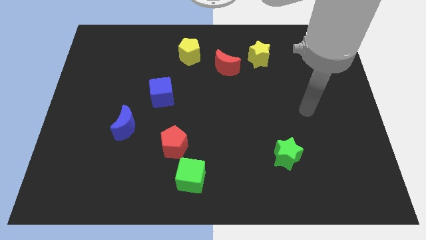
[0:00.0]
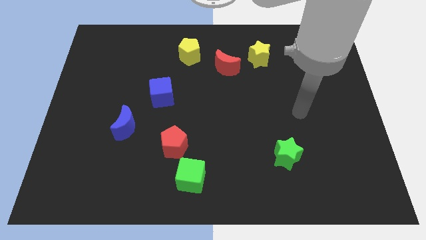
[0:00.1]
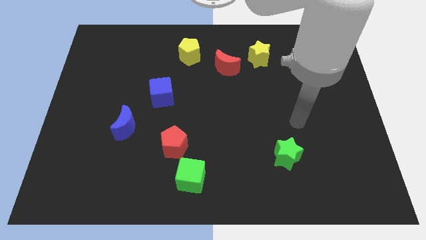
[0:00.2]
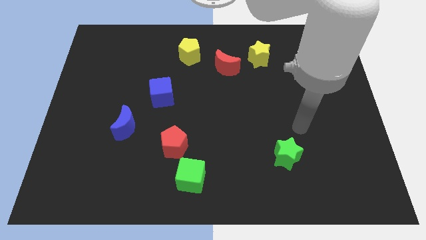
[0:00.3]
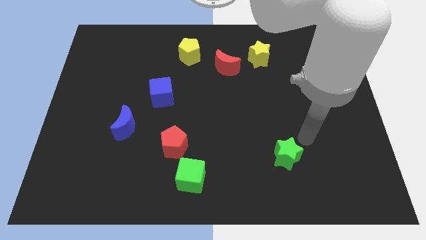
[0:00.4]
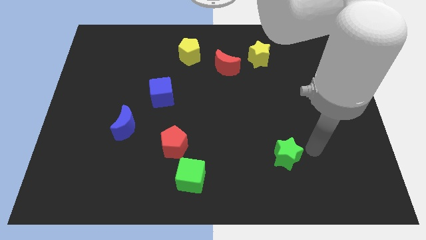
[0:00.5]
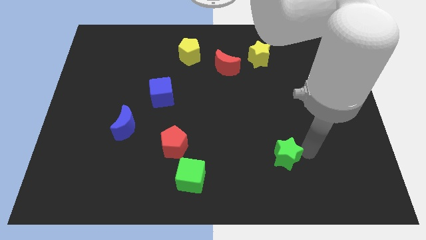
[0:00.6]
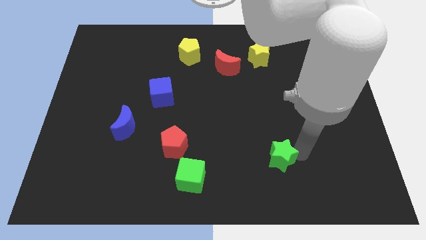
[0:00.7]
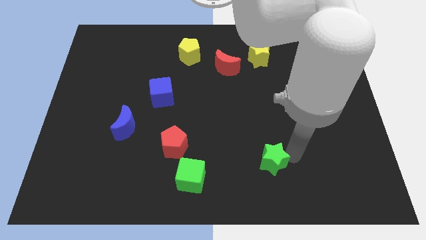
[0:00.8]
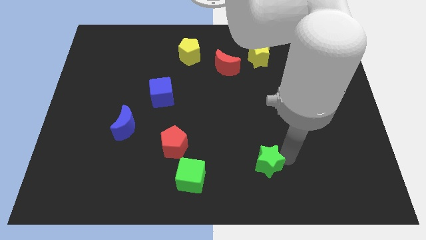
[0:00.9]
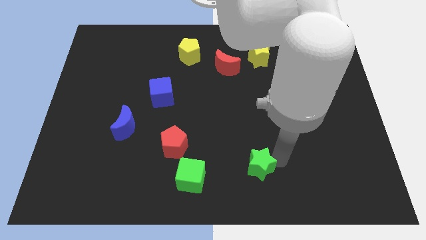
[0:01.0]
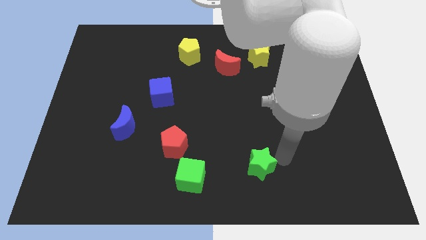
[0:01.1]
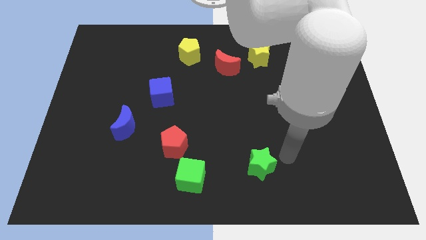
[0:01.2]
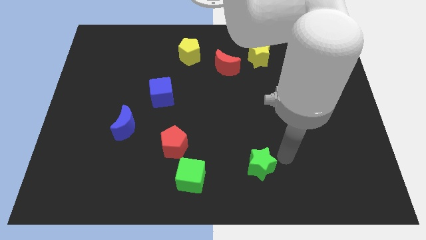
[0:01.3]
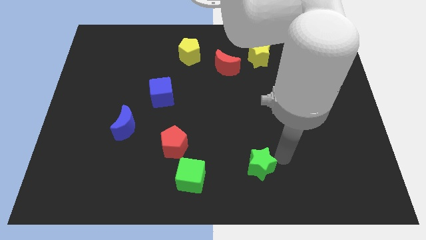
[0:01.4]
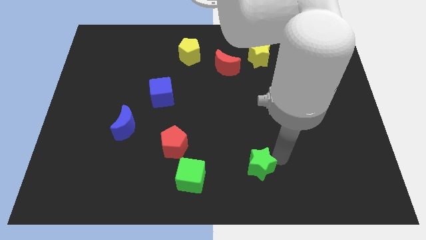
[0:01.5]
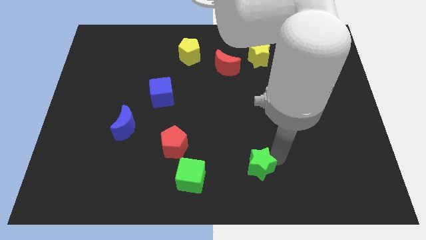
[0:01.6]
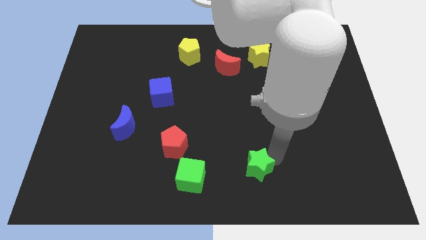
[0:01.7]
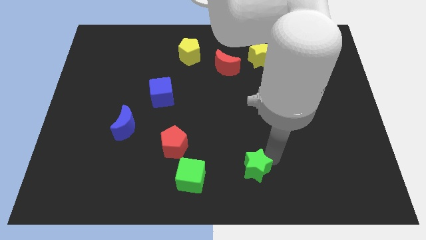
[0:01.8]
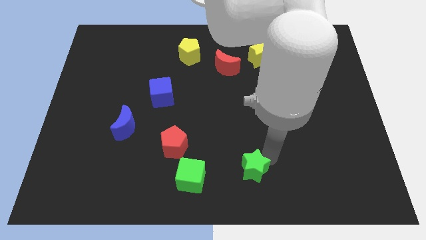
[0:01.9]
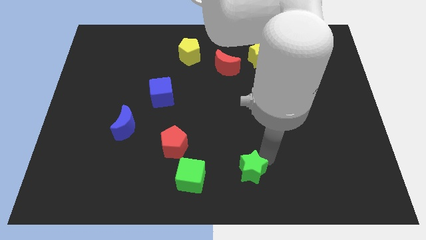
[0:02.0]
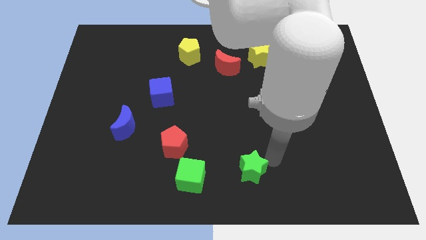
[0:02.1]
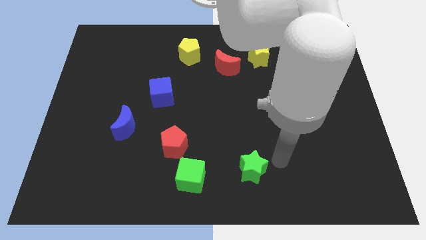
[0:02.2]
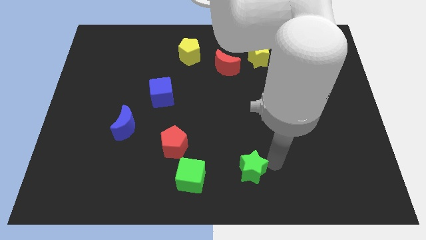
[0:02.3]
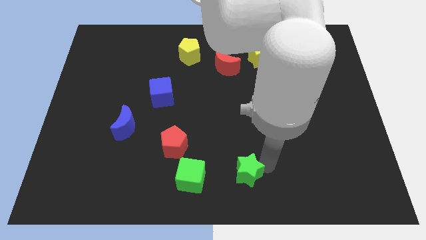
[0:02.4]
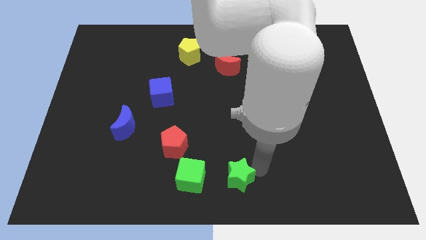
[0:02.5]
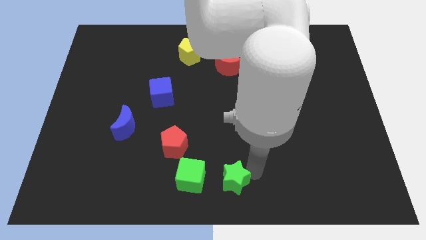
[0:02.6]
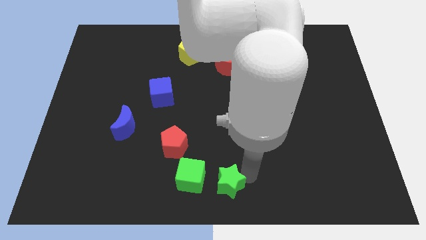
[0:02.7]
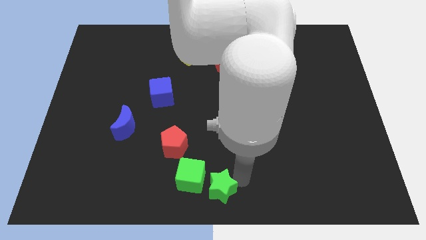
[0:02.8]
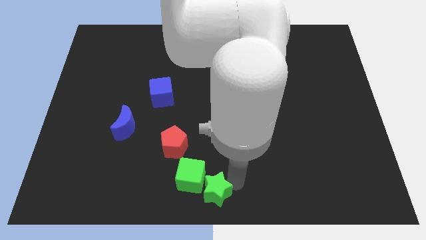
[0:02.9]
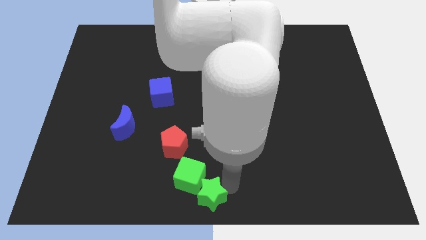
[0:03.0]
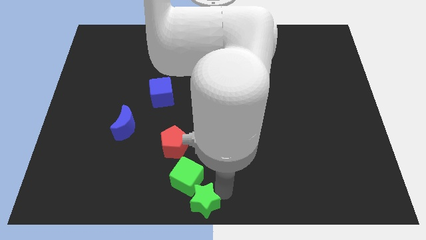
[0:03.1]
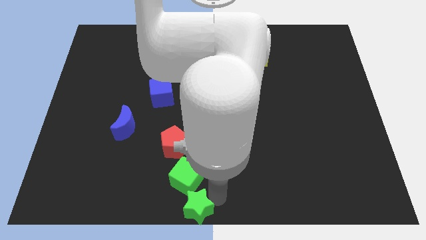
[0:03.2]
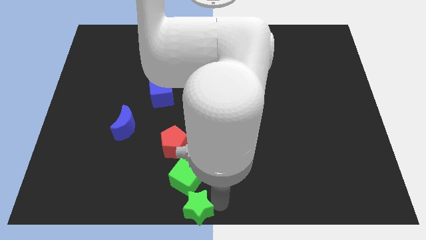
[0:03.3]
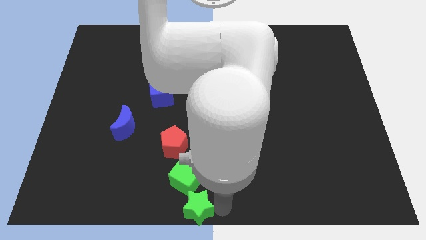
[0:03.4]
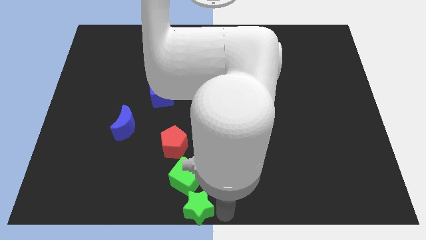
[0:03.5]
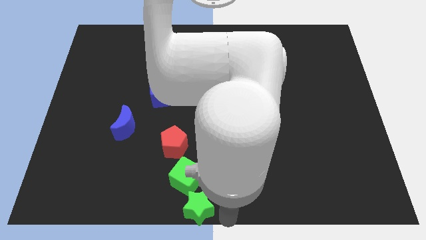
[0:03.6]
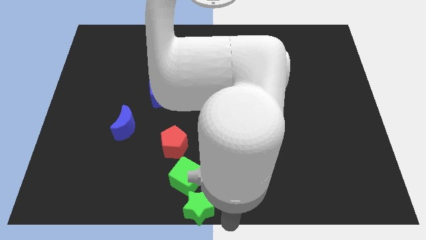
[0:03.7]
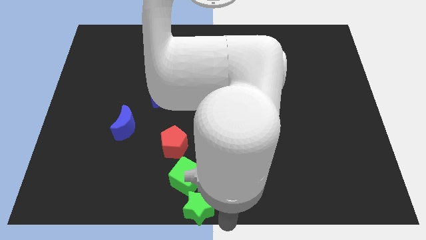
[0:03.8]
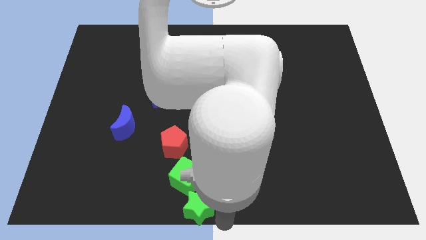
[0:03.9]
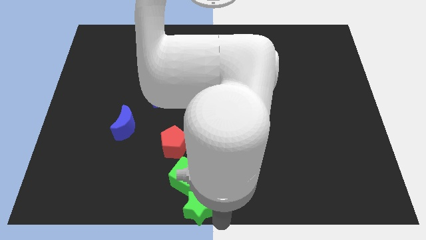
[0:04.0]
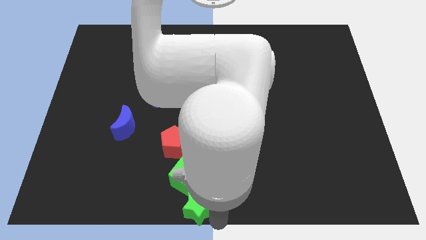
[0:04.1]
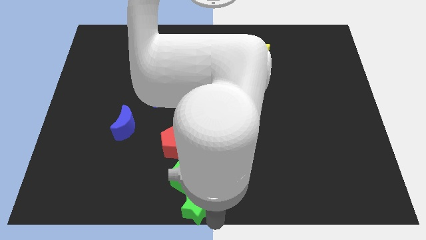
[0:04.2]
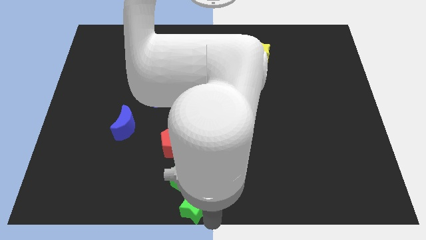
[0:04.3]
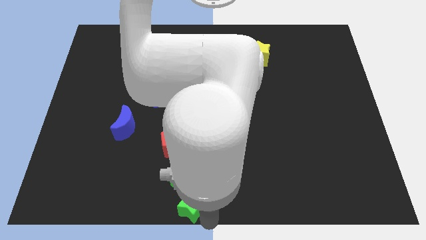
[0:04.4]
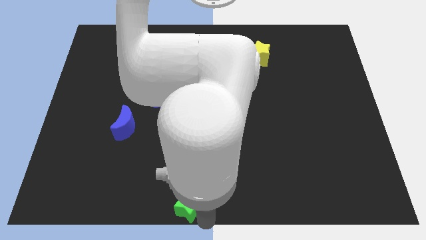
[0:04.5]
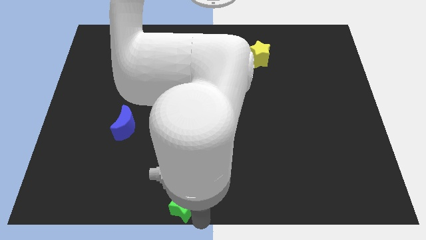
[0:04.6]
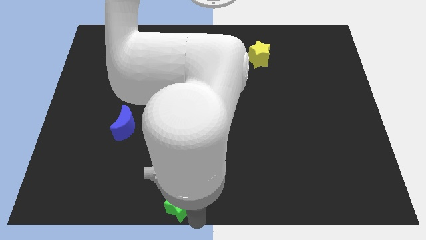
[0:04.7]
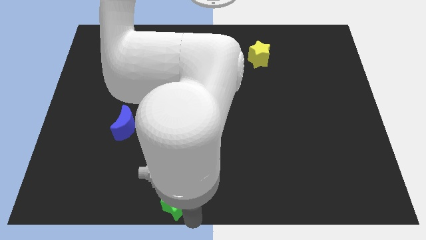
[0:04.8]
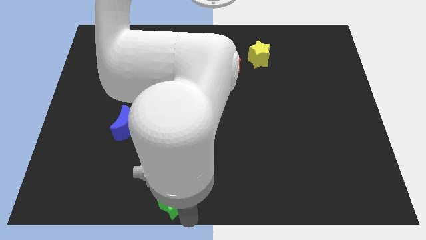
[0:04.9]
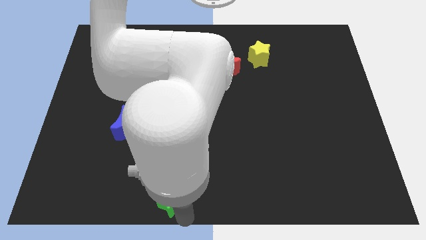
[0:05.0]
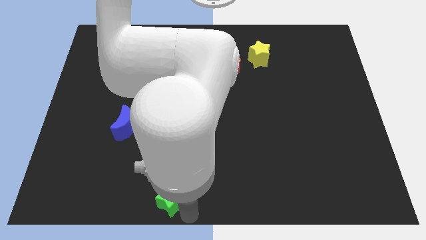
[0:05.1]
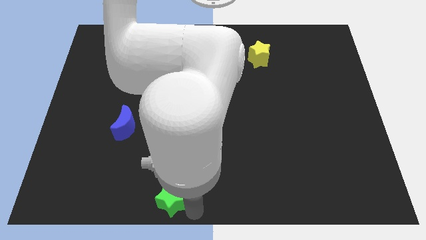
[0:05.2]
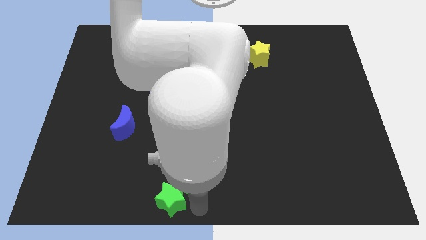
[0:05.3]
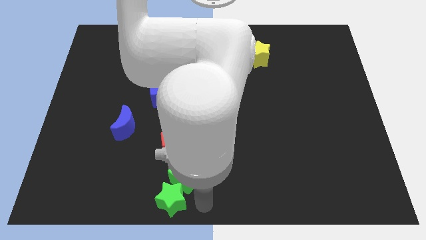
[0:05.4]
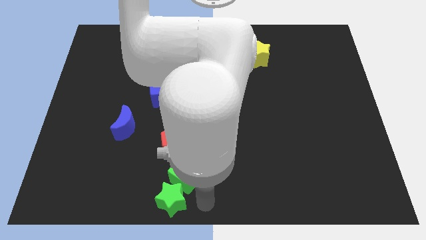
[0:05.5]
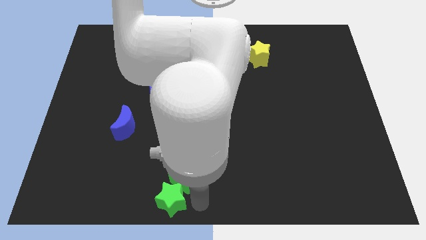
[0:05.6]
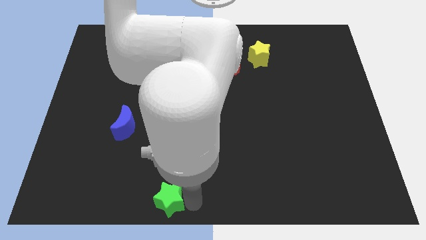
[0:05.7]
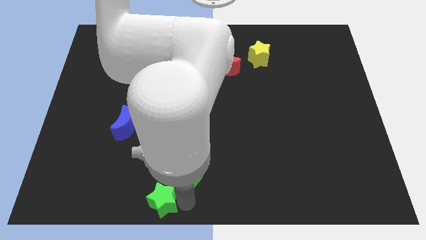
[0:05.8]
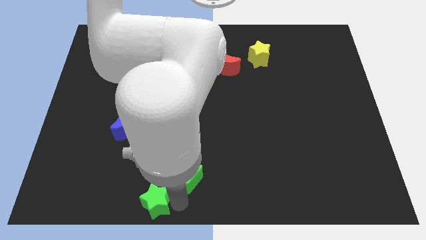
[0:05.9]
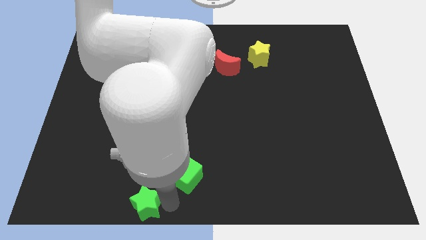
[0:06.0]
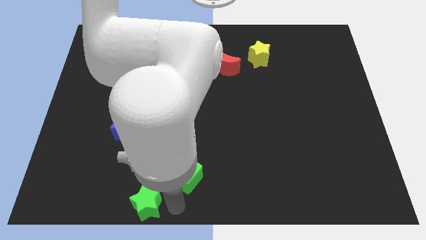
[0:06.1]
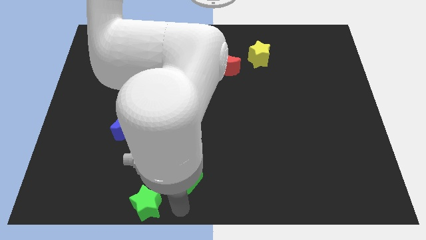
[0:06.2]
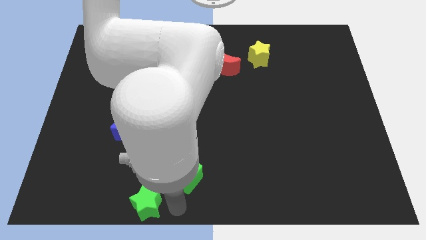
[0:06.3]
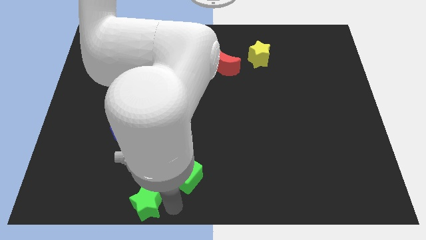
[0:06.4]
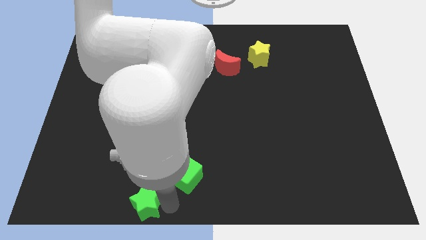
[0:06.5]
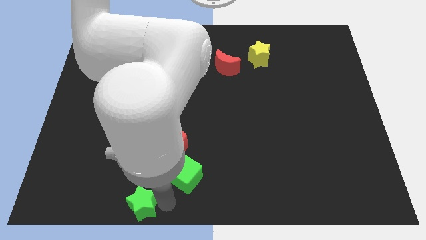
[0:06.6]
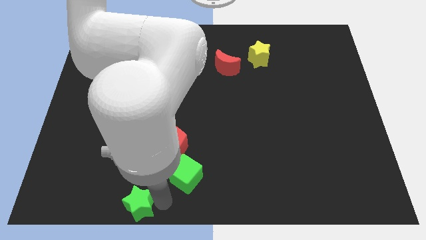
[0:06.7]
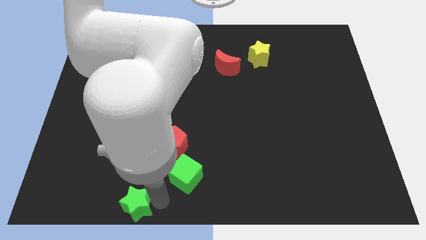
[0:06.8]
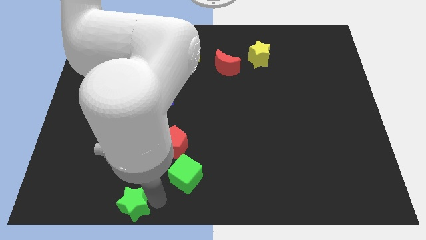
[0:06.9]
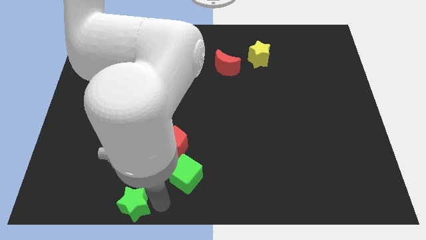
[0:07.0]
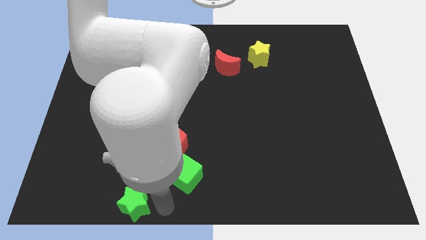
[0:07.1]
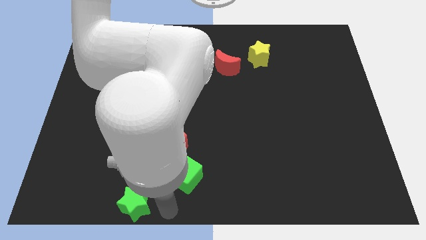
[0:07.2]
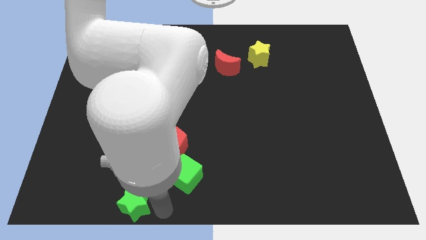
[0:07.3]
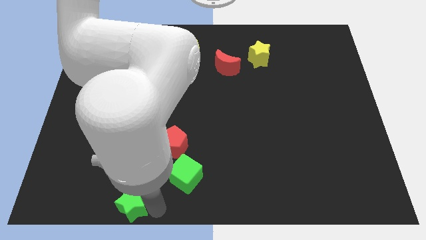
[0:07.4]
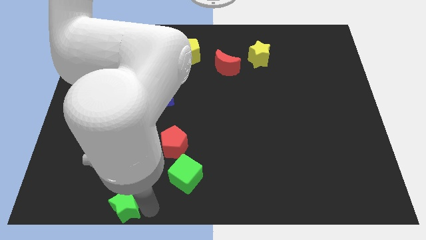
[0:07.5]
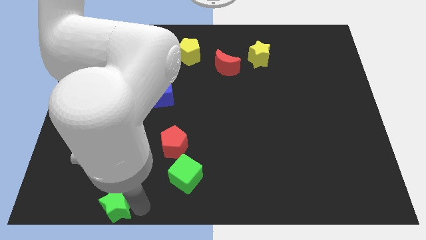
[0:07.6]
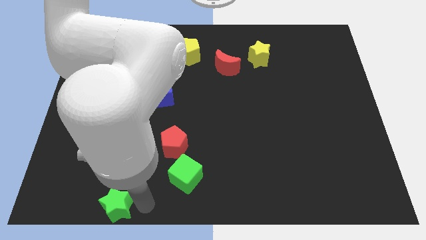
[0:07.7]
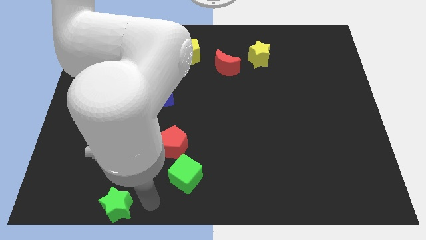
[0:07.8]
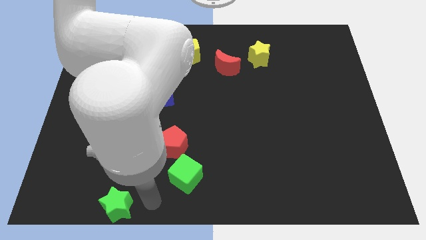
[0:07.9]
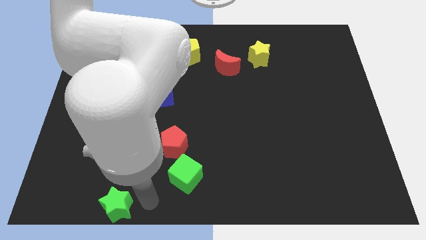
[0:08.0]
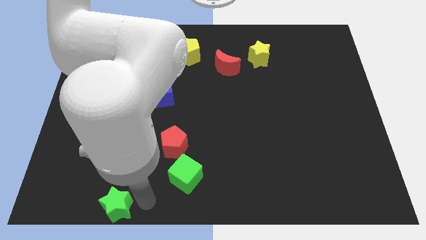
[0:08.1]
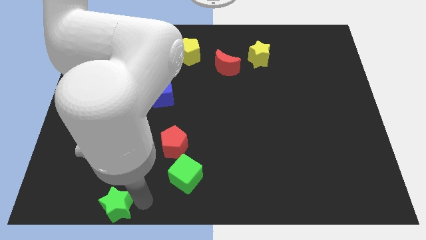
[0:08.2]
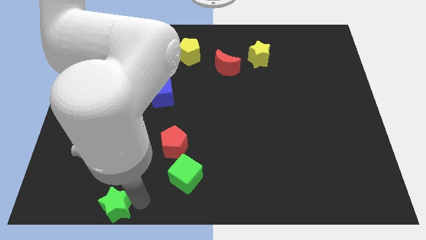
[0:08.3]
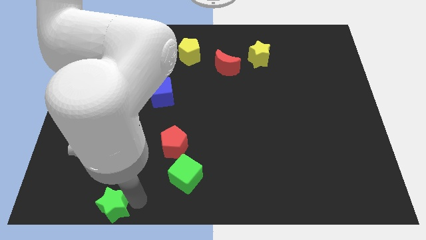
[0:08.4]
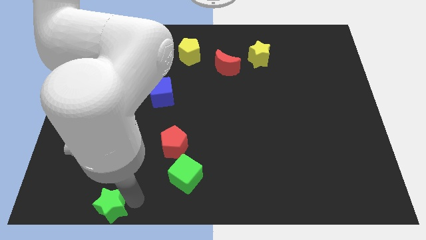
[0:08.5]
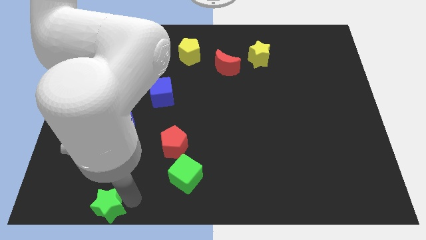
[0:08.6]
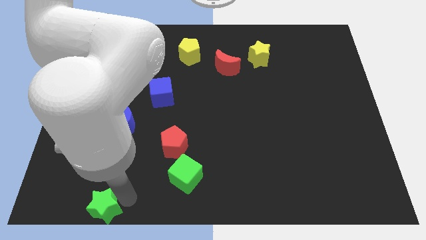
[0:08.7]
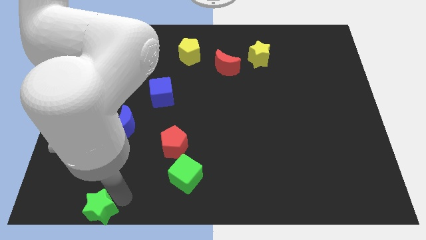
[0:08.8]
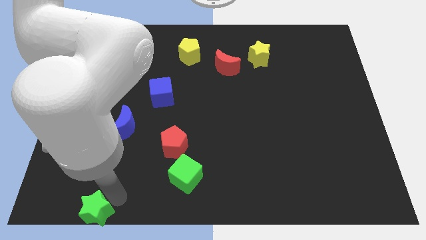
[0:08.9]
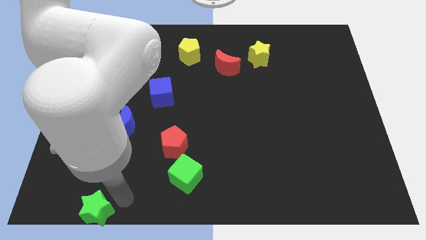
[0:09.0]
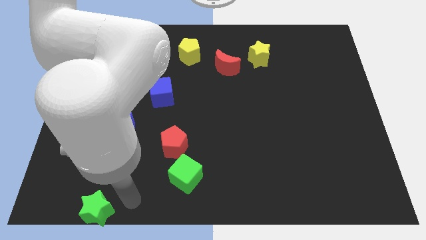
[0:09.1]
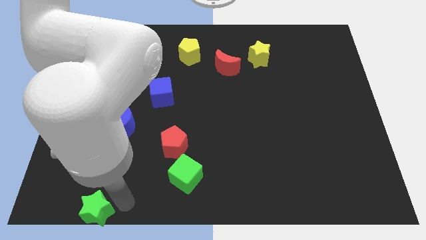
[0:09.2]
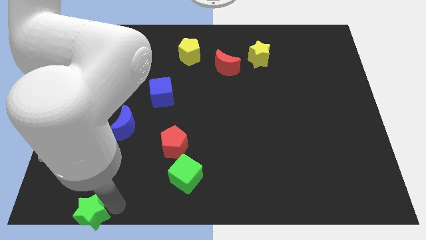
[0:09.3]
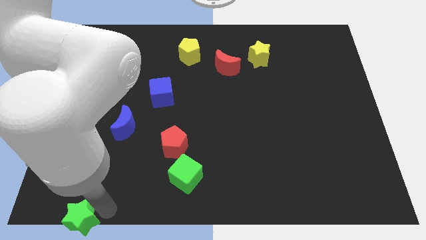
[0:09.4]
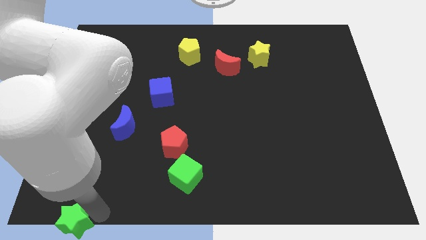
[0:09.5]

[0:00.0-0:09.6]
put the green star to the bottom left
